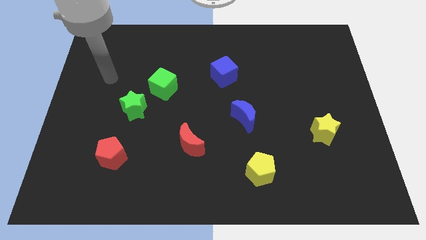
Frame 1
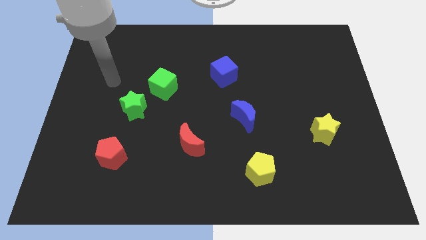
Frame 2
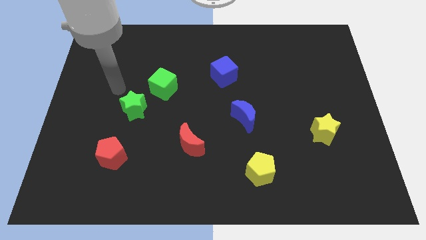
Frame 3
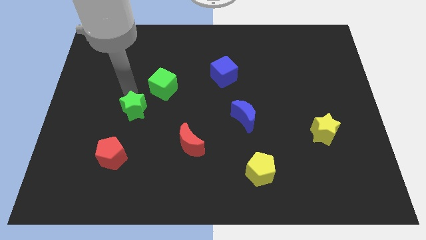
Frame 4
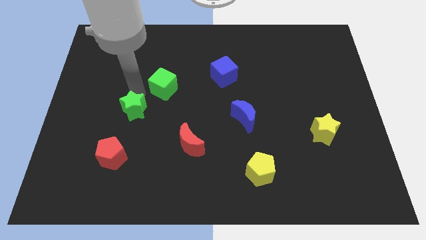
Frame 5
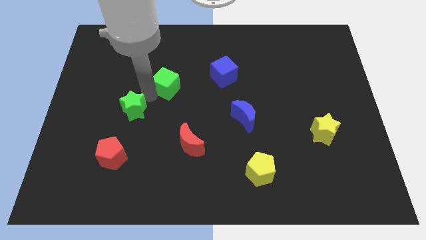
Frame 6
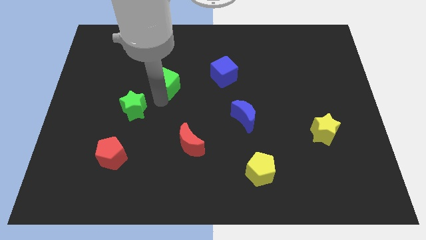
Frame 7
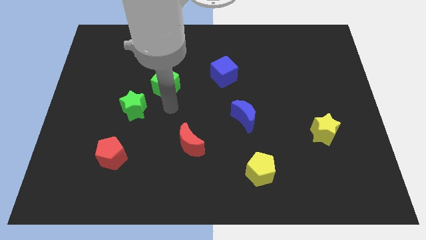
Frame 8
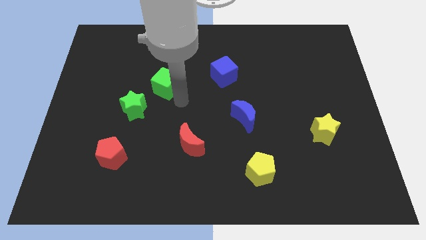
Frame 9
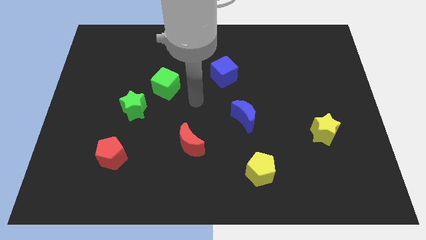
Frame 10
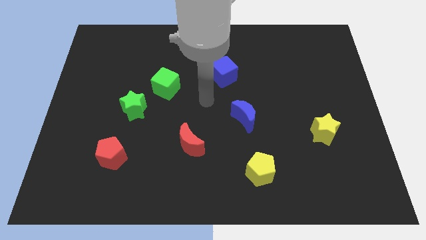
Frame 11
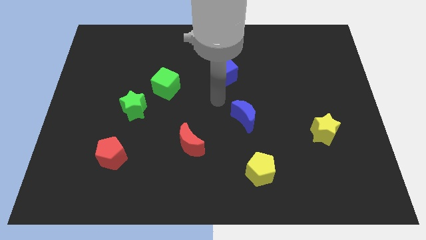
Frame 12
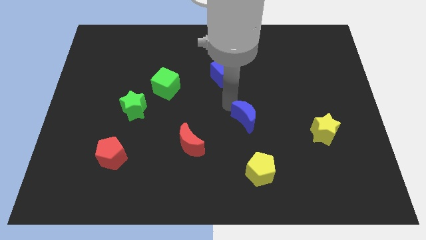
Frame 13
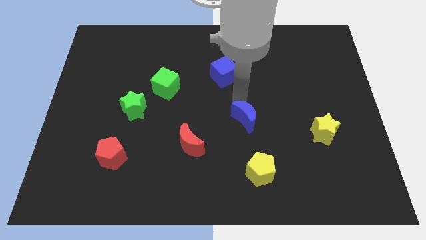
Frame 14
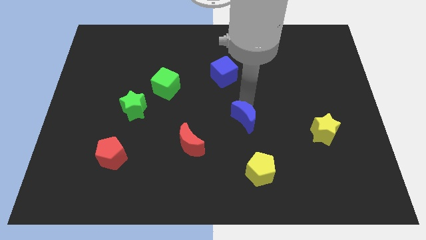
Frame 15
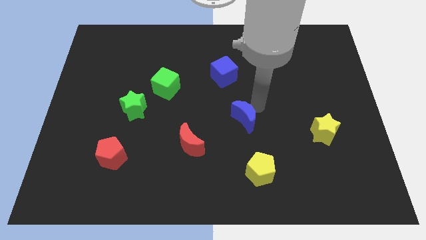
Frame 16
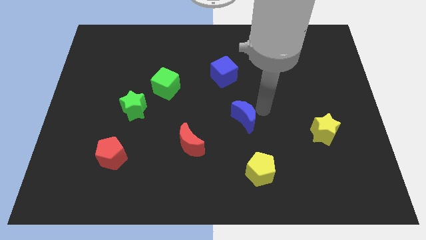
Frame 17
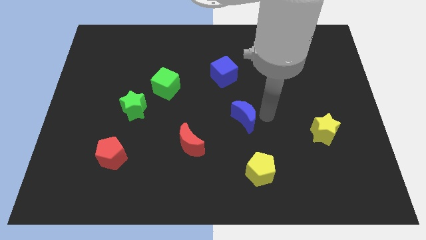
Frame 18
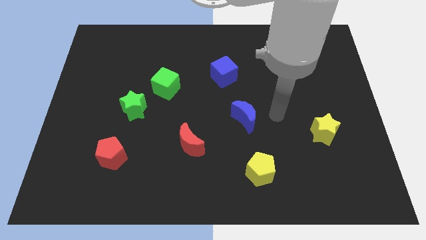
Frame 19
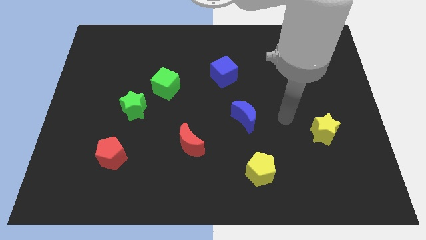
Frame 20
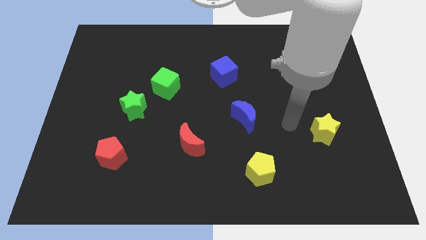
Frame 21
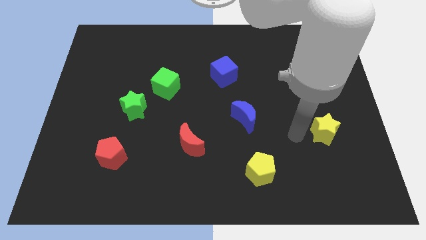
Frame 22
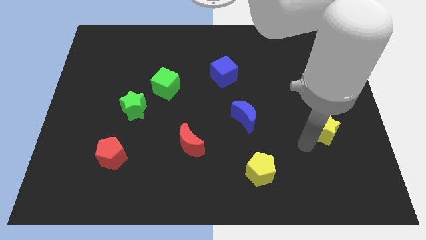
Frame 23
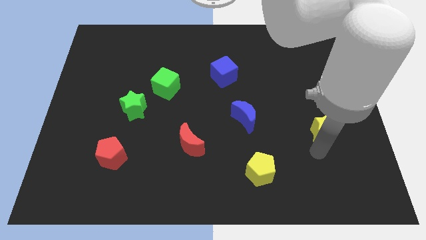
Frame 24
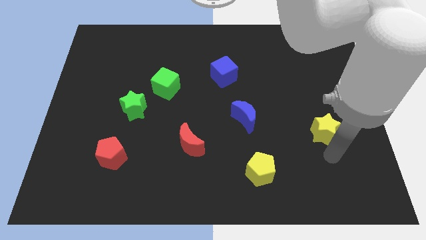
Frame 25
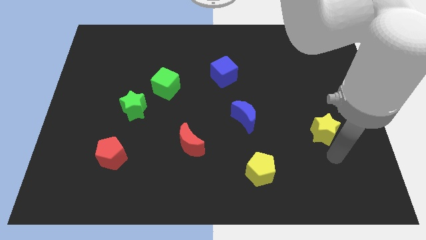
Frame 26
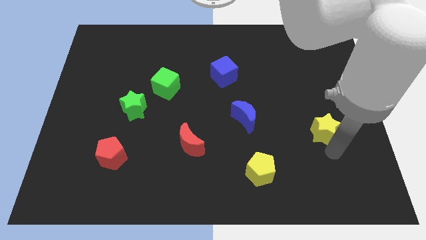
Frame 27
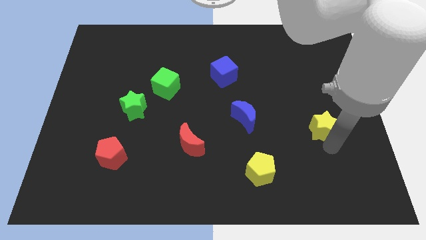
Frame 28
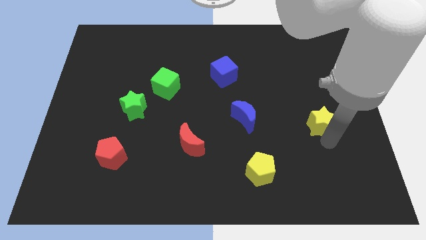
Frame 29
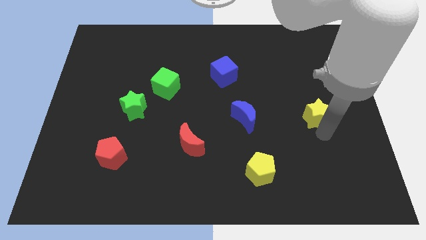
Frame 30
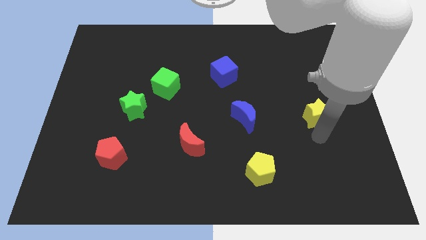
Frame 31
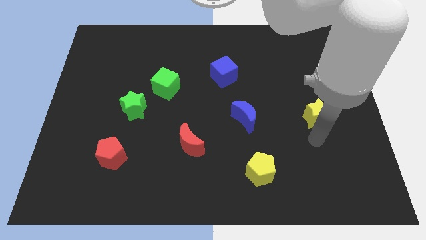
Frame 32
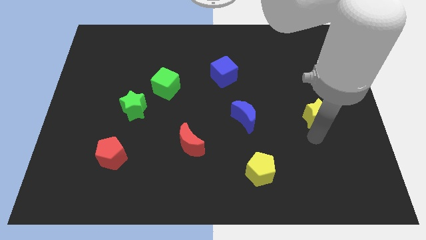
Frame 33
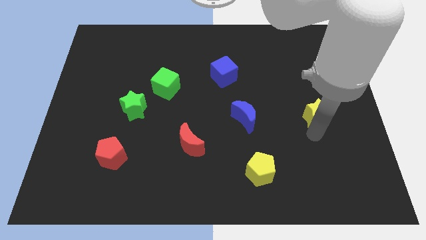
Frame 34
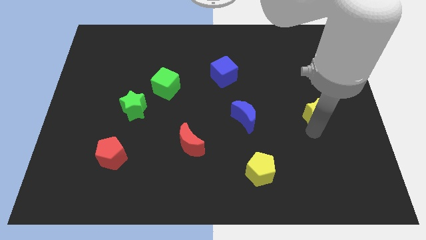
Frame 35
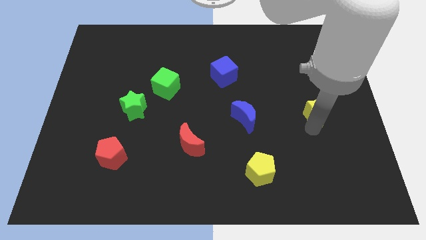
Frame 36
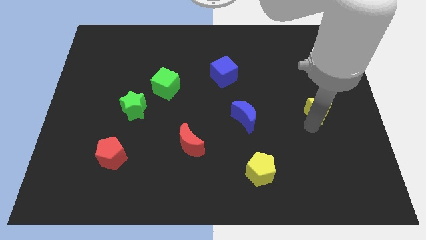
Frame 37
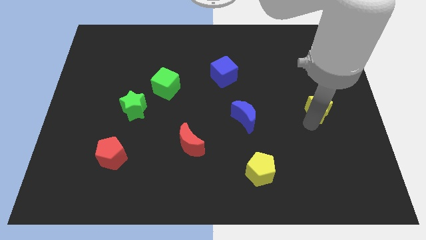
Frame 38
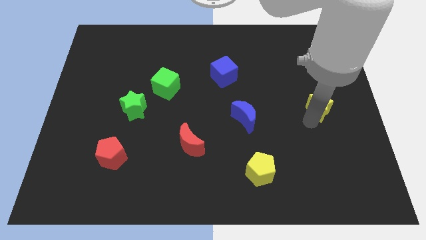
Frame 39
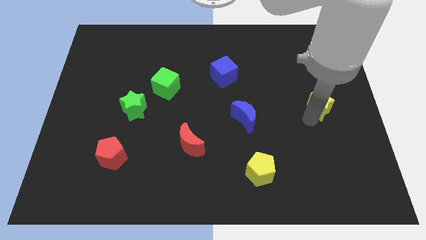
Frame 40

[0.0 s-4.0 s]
slightly slide the yellow star upwards

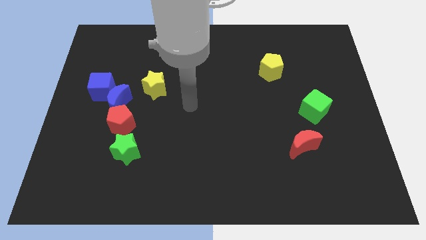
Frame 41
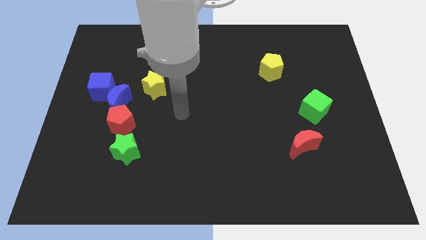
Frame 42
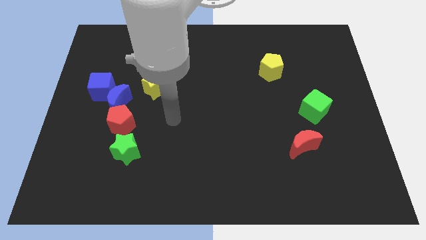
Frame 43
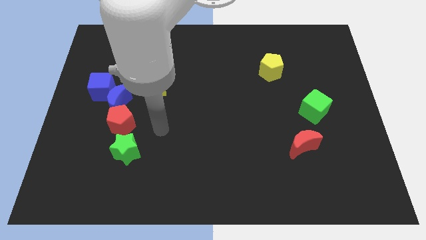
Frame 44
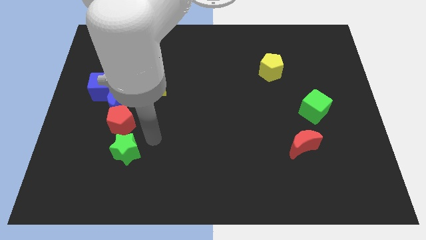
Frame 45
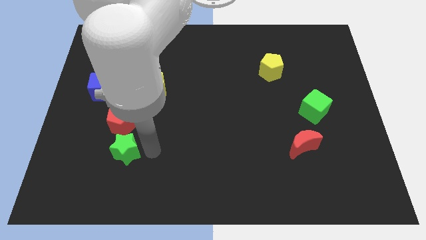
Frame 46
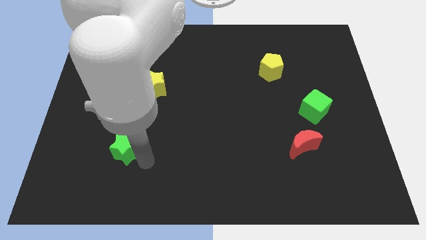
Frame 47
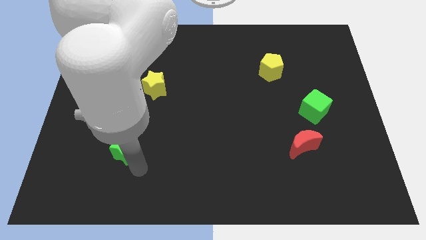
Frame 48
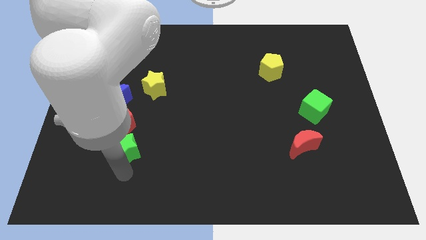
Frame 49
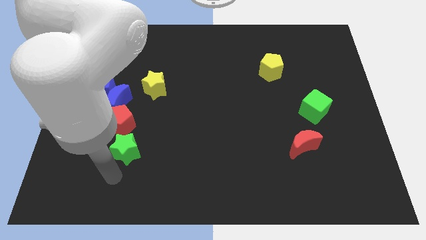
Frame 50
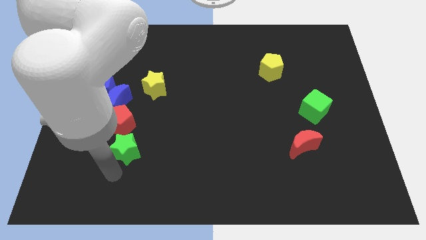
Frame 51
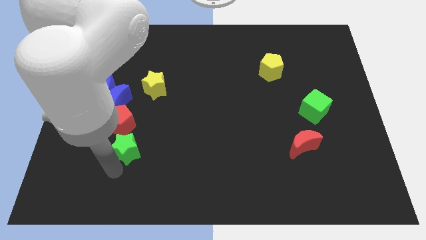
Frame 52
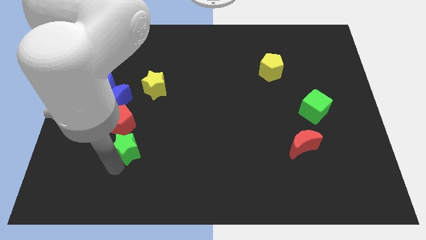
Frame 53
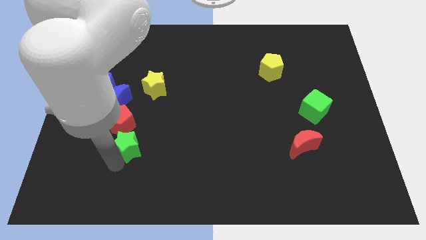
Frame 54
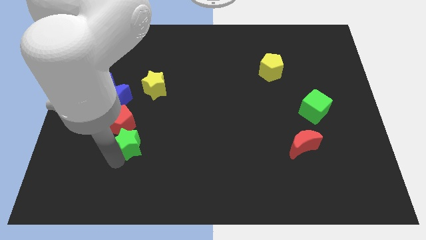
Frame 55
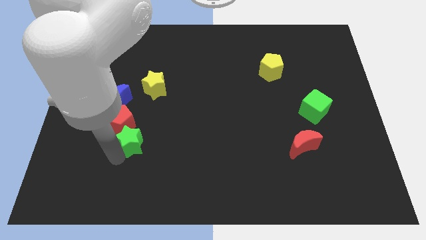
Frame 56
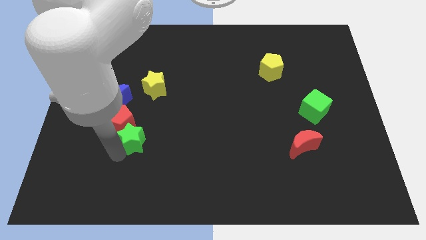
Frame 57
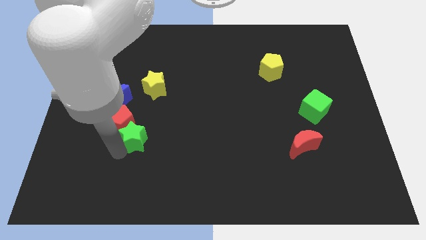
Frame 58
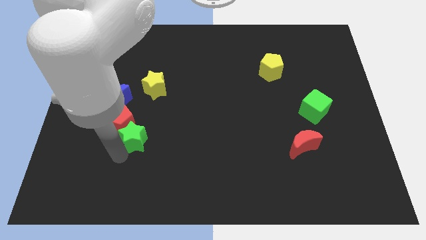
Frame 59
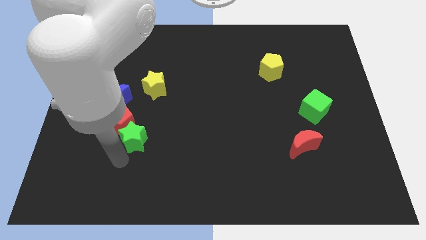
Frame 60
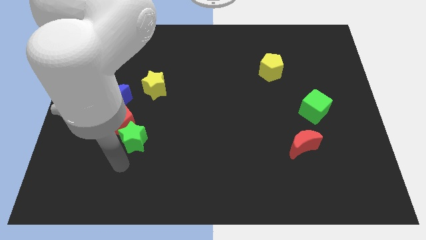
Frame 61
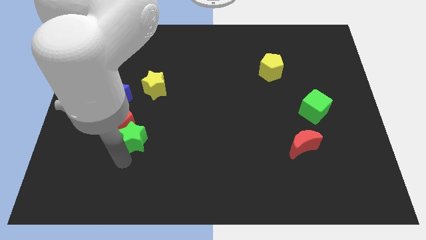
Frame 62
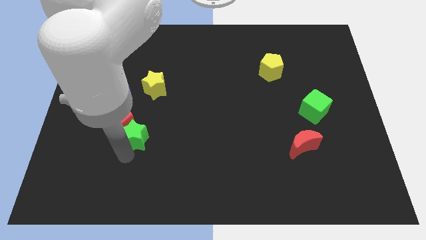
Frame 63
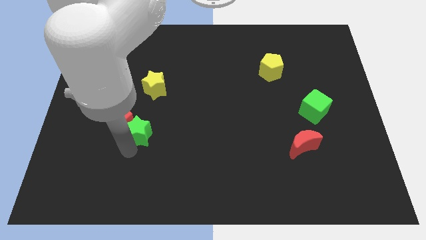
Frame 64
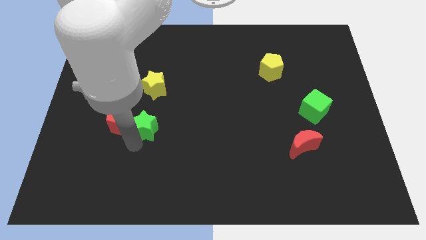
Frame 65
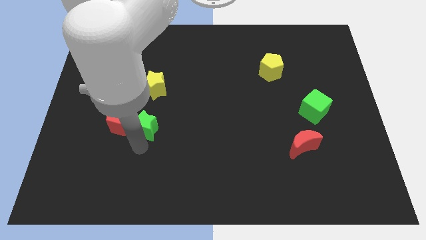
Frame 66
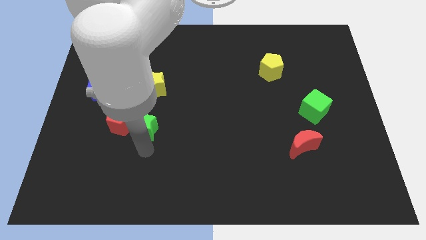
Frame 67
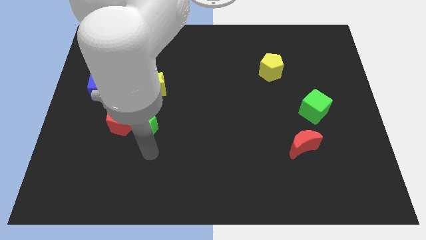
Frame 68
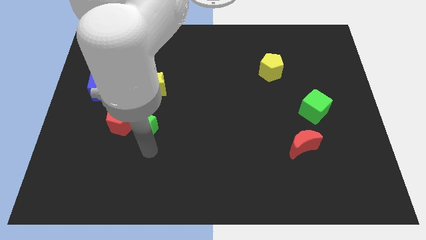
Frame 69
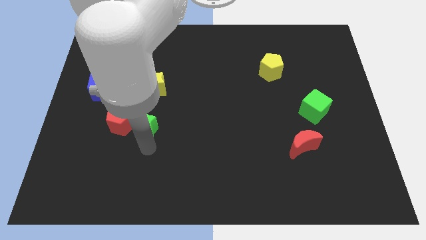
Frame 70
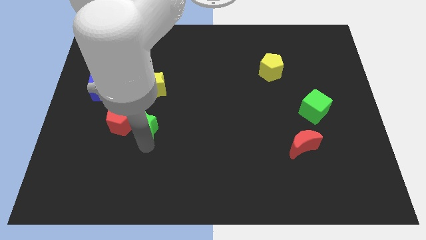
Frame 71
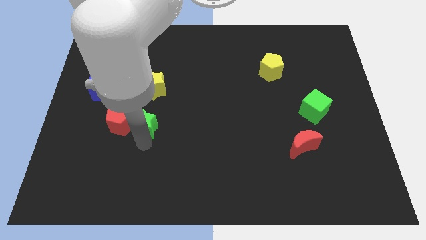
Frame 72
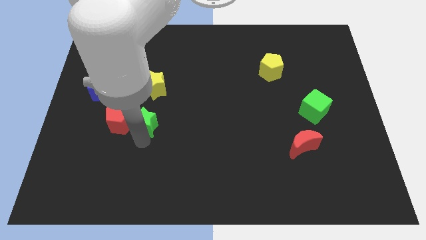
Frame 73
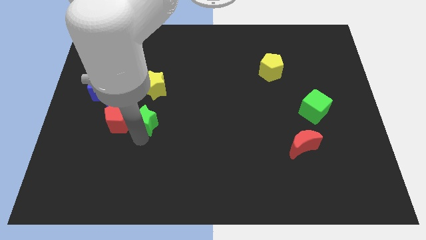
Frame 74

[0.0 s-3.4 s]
slide the green star slightly up

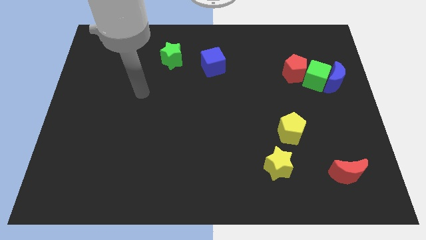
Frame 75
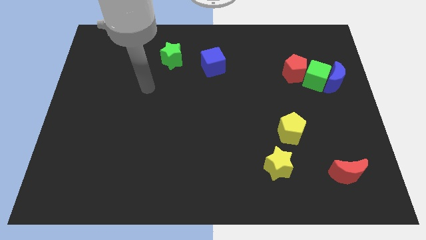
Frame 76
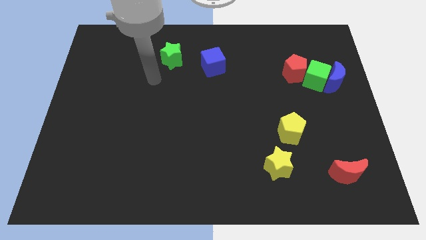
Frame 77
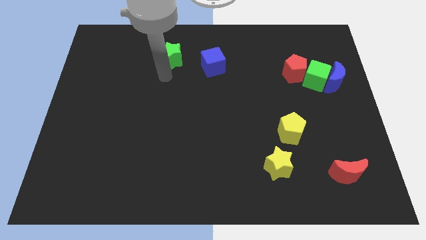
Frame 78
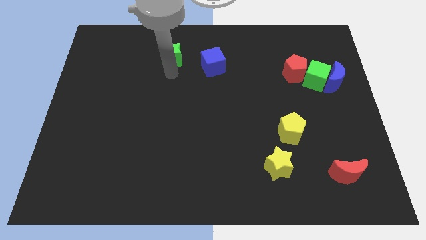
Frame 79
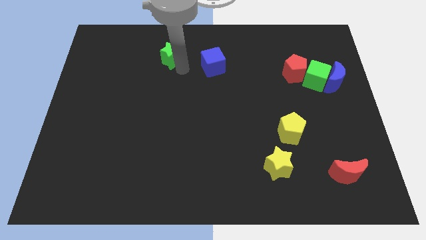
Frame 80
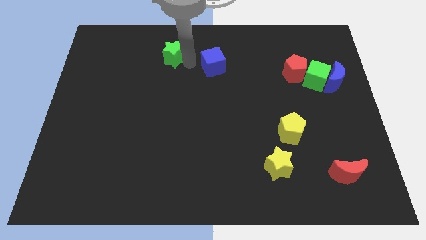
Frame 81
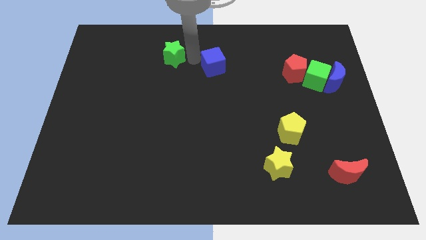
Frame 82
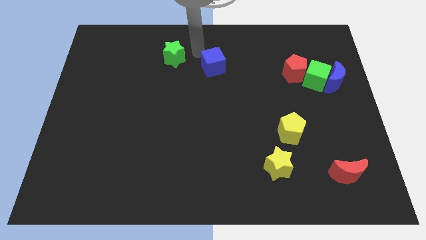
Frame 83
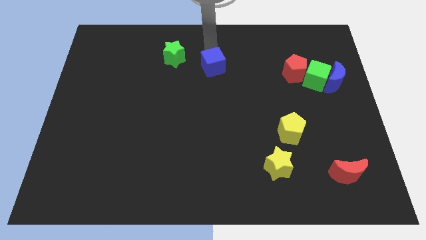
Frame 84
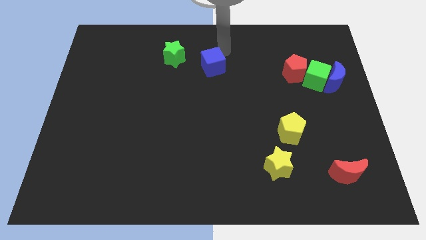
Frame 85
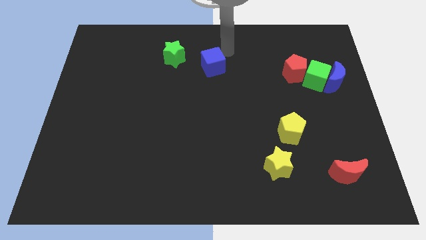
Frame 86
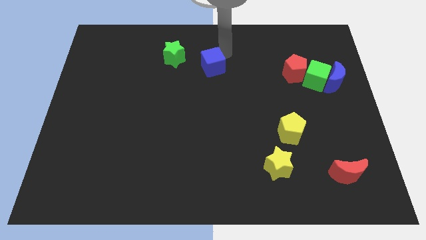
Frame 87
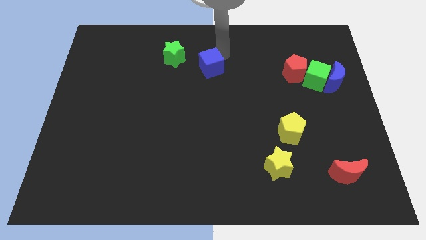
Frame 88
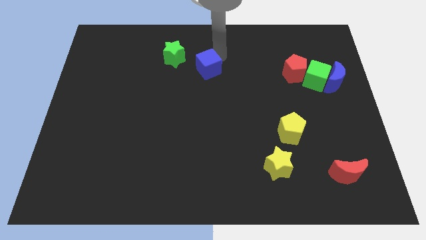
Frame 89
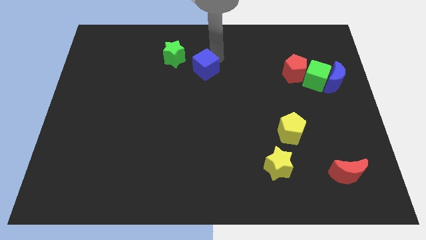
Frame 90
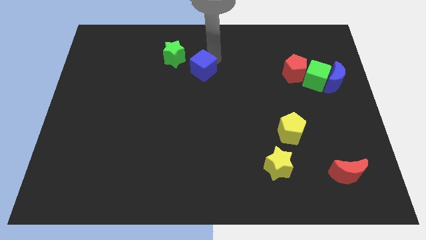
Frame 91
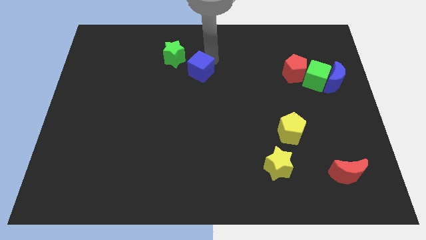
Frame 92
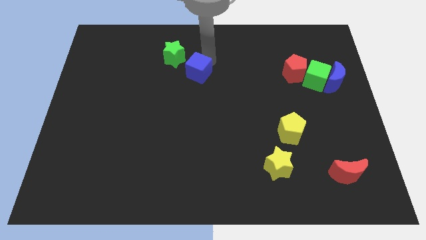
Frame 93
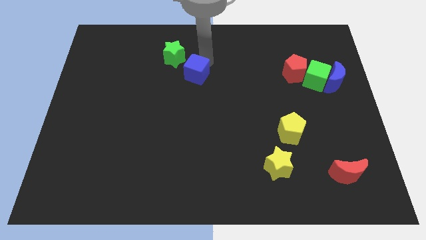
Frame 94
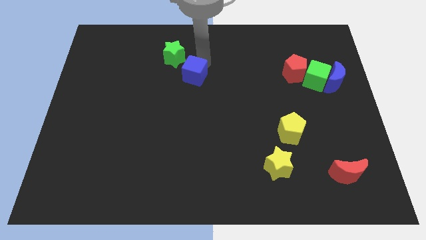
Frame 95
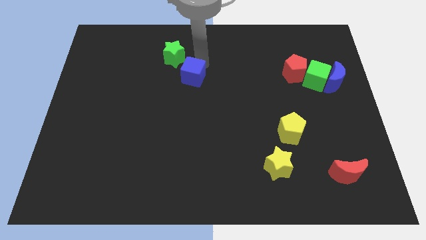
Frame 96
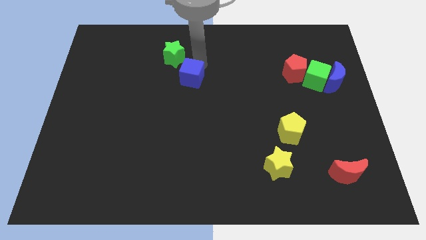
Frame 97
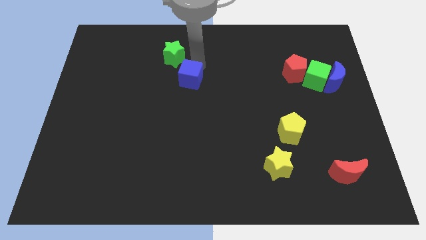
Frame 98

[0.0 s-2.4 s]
push the blue cube a bit down and to the left
